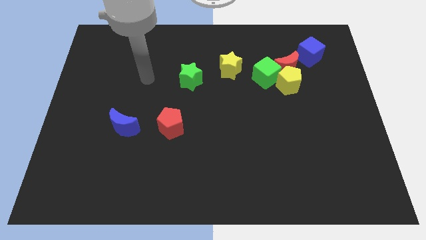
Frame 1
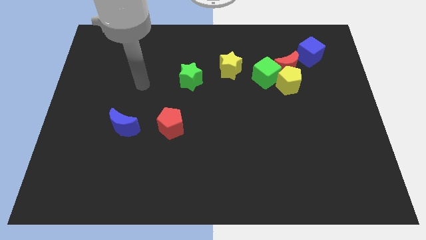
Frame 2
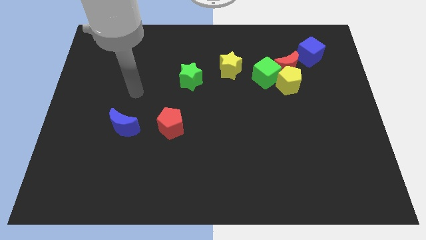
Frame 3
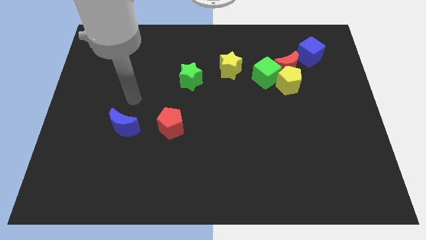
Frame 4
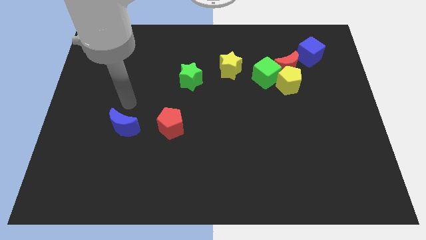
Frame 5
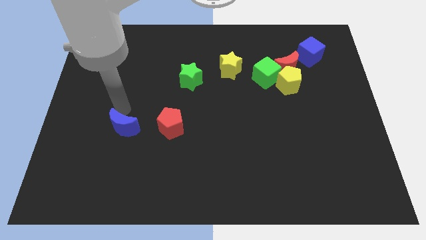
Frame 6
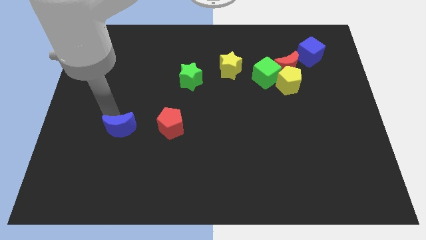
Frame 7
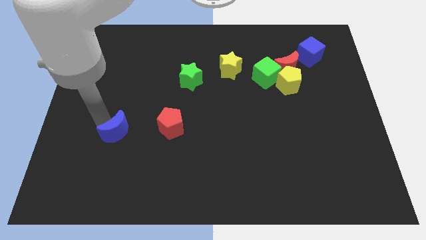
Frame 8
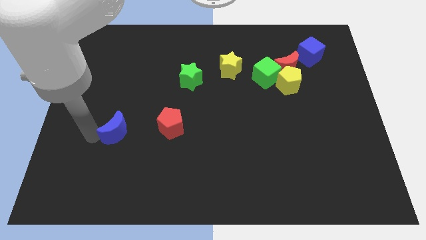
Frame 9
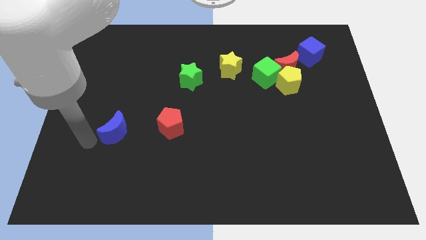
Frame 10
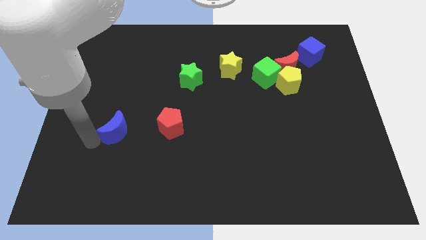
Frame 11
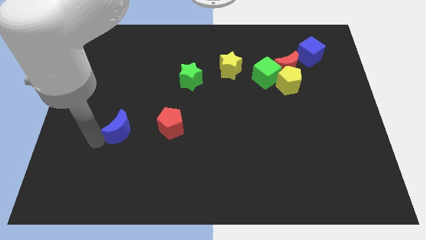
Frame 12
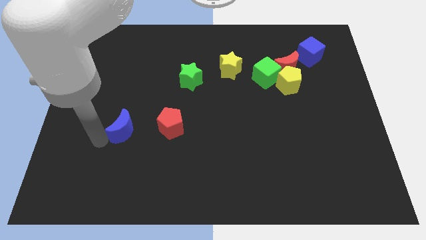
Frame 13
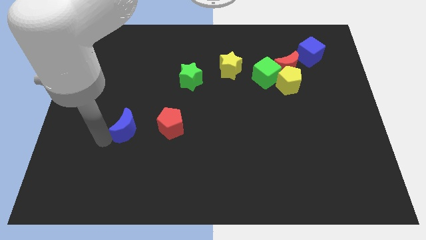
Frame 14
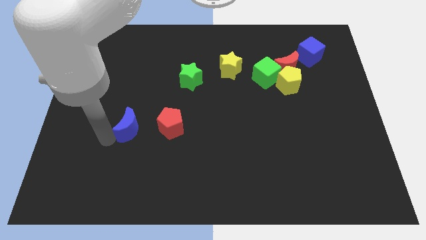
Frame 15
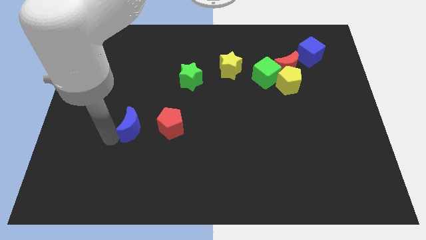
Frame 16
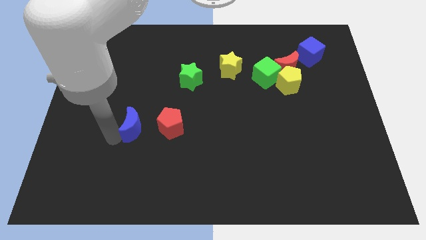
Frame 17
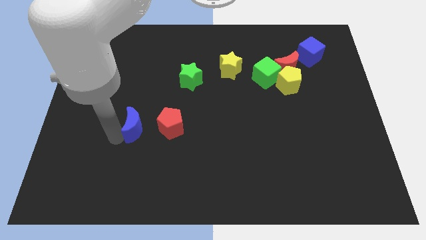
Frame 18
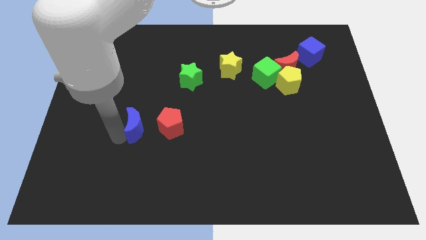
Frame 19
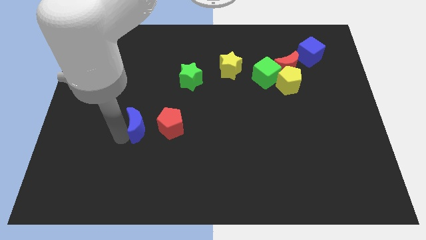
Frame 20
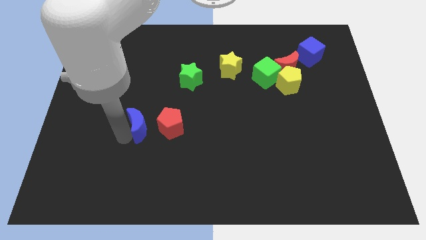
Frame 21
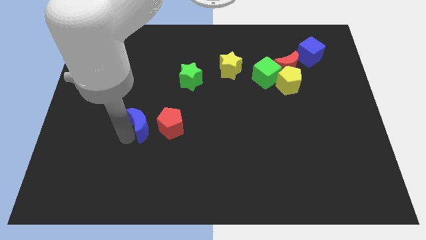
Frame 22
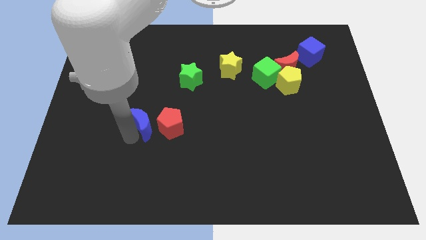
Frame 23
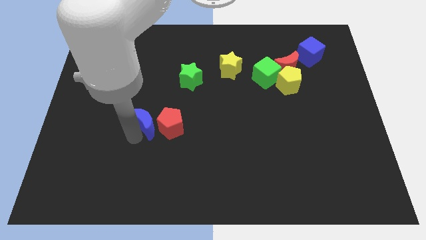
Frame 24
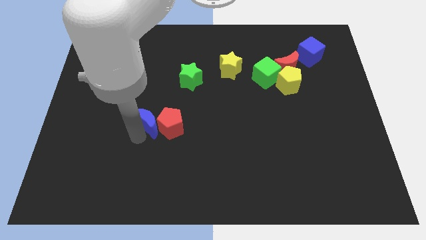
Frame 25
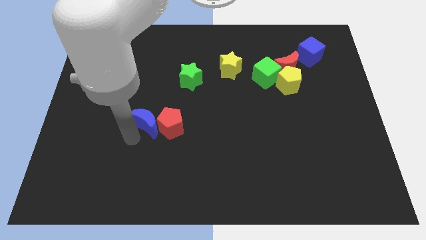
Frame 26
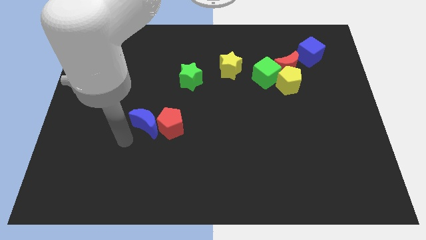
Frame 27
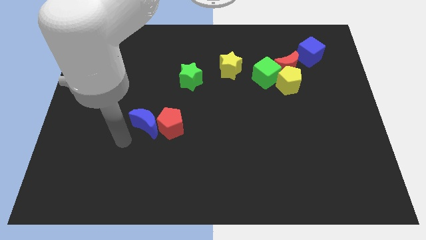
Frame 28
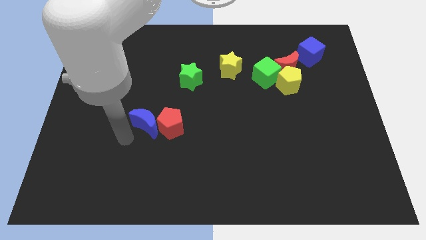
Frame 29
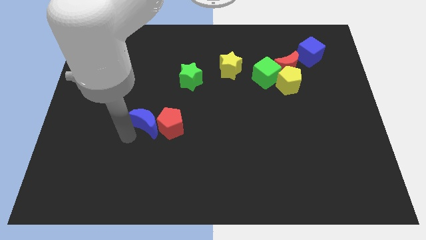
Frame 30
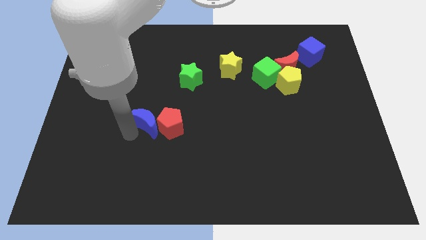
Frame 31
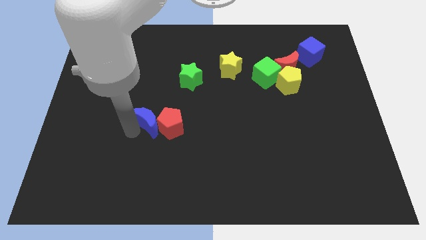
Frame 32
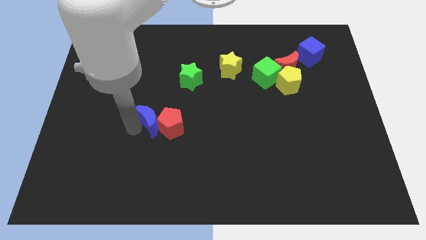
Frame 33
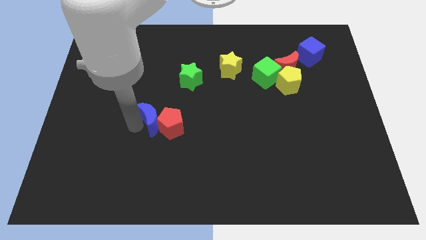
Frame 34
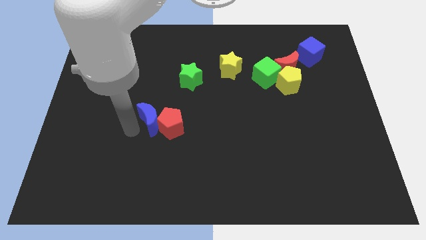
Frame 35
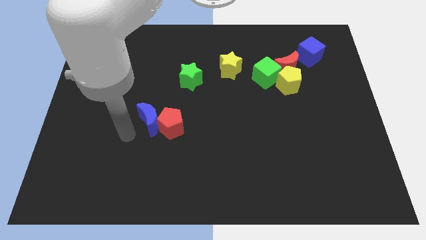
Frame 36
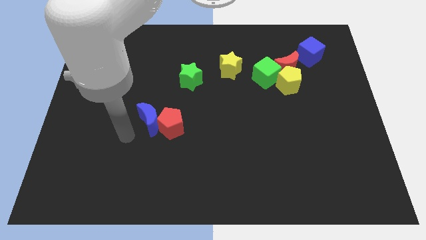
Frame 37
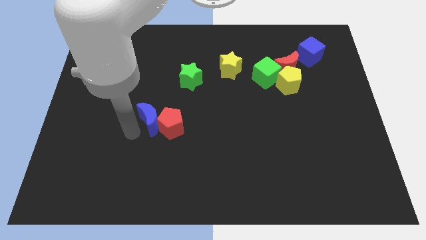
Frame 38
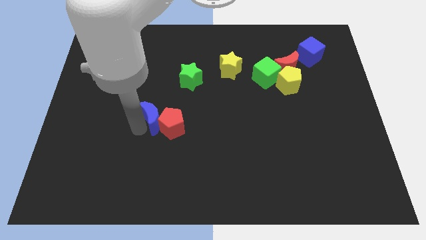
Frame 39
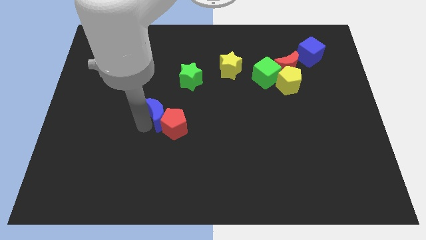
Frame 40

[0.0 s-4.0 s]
move the blue moon a little to the right

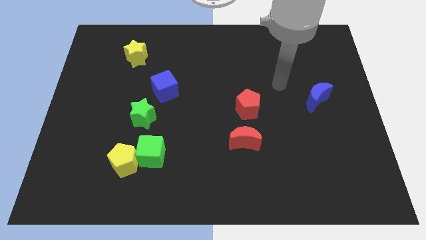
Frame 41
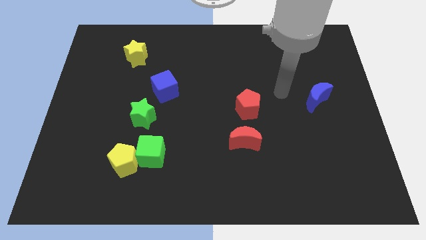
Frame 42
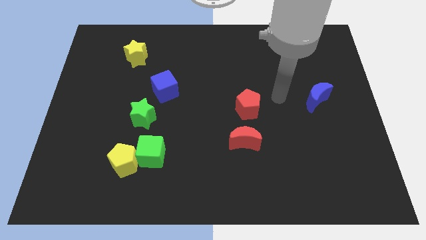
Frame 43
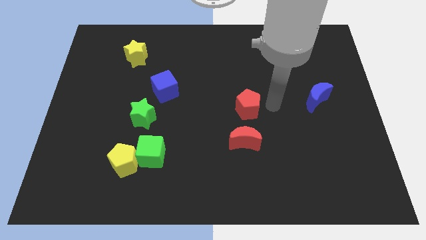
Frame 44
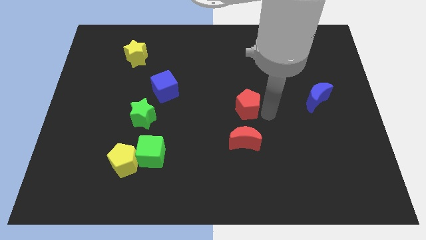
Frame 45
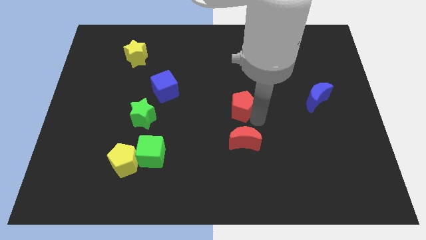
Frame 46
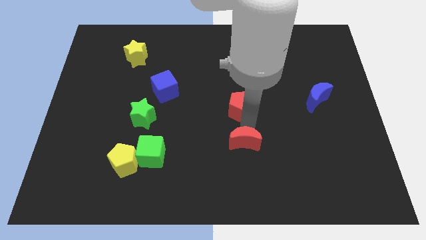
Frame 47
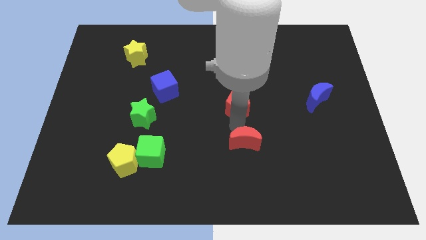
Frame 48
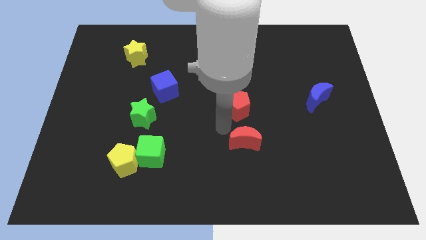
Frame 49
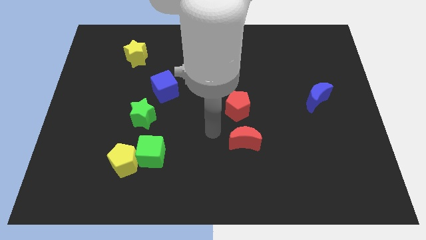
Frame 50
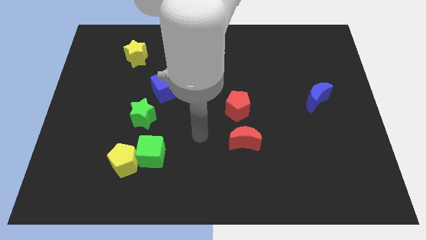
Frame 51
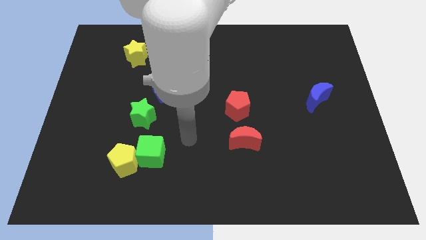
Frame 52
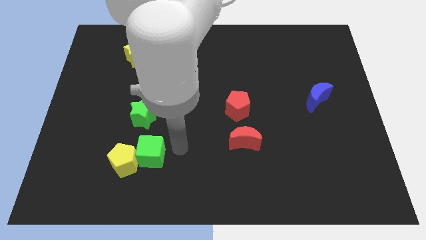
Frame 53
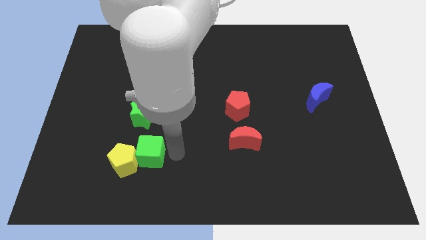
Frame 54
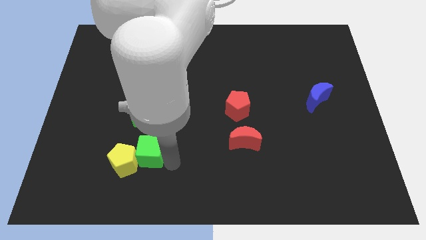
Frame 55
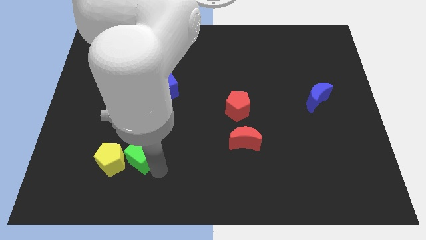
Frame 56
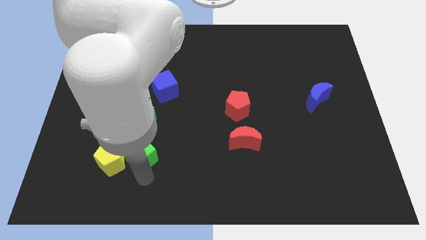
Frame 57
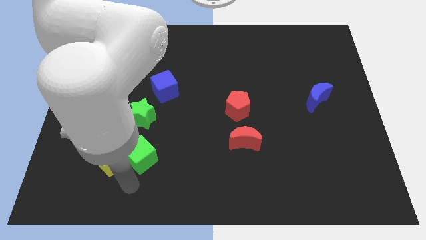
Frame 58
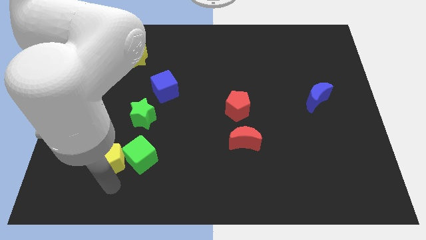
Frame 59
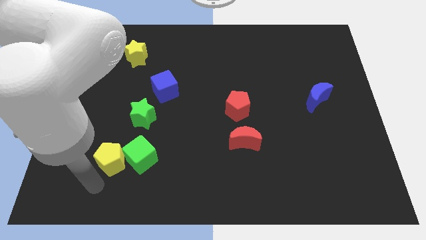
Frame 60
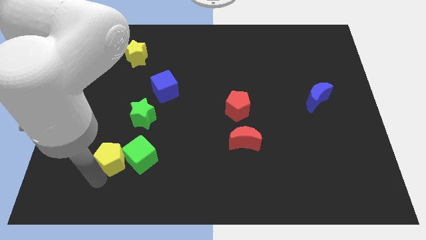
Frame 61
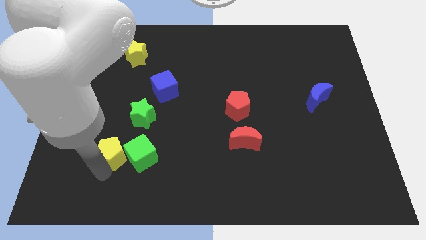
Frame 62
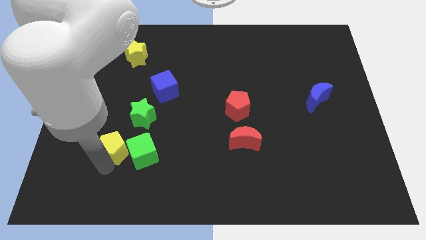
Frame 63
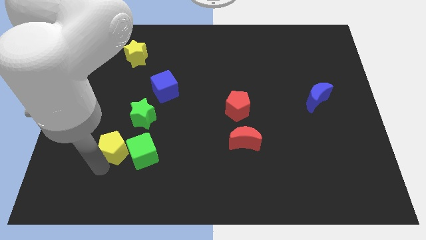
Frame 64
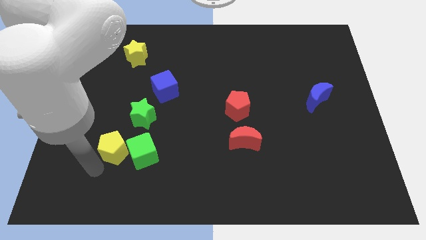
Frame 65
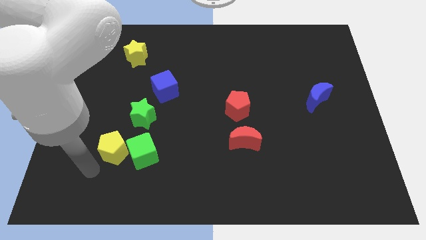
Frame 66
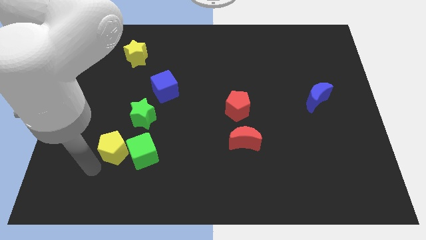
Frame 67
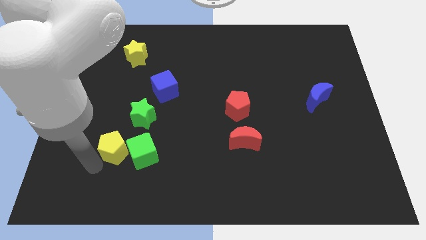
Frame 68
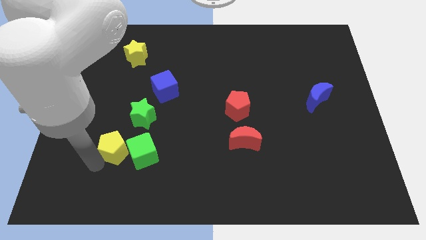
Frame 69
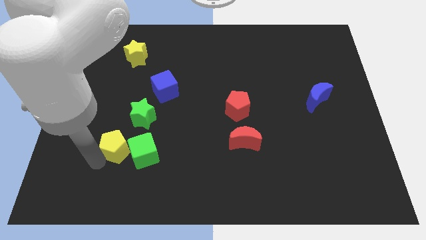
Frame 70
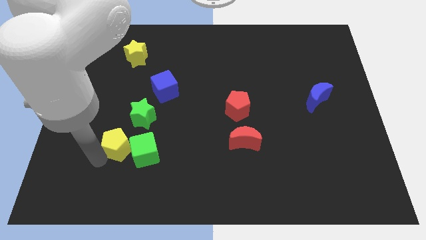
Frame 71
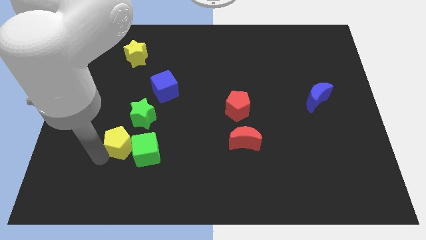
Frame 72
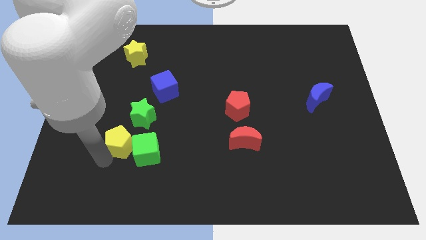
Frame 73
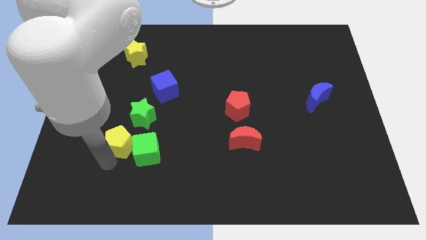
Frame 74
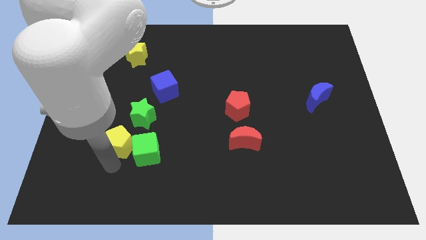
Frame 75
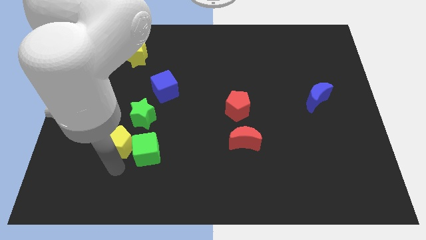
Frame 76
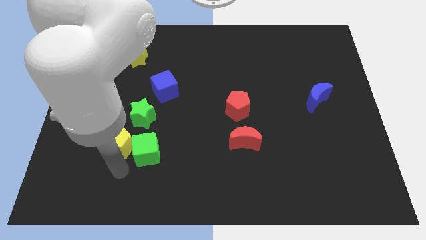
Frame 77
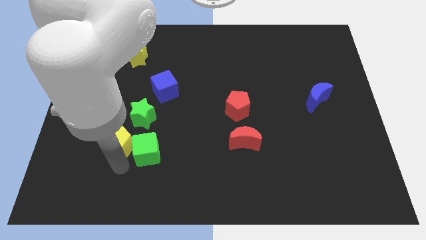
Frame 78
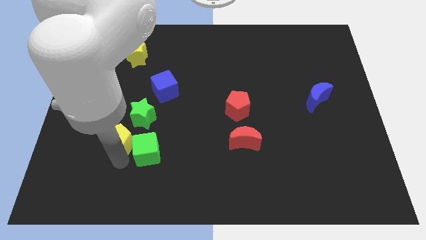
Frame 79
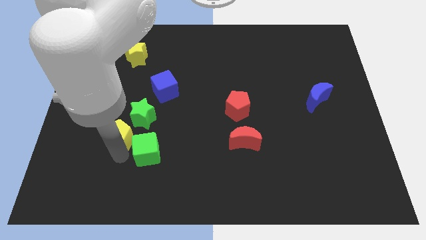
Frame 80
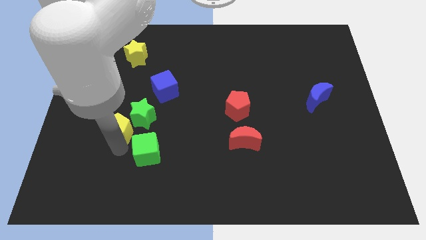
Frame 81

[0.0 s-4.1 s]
slightly move the yellow pentagon up

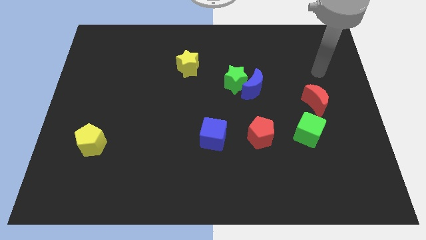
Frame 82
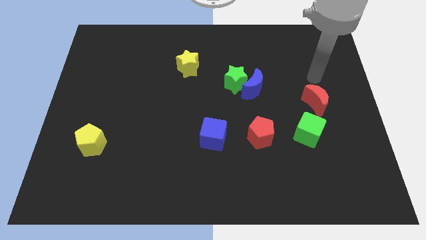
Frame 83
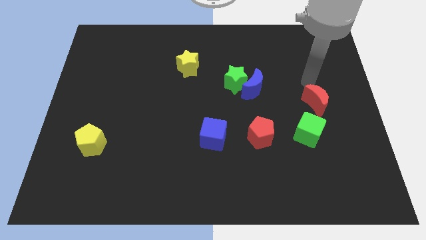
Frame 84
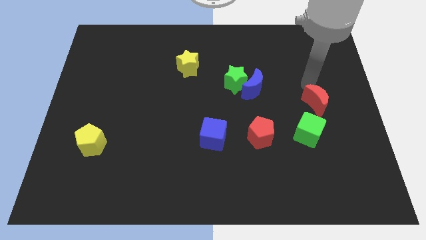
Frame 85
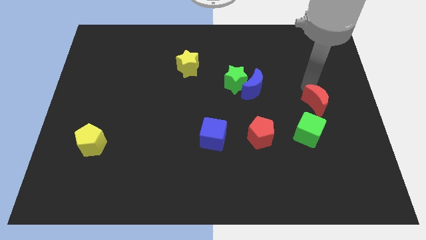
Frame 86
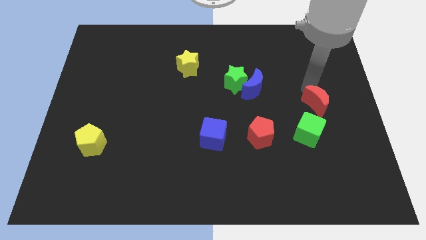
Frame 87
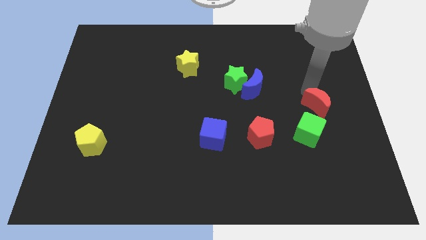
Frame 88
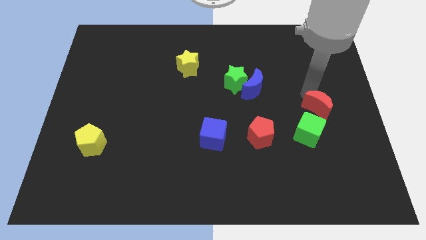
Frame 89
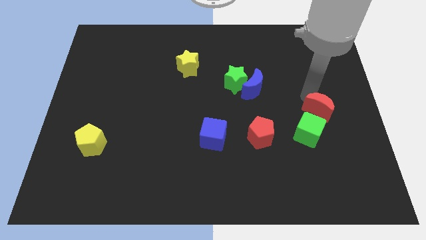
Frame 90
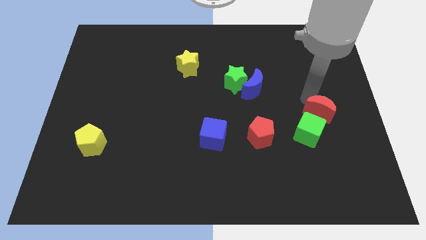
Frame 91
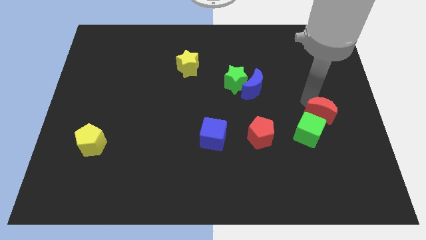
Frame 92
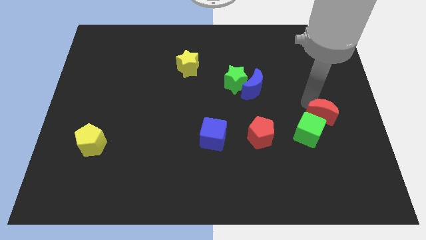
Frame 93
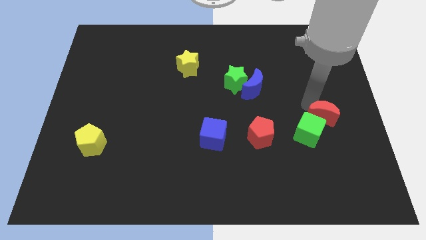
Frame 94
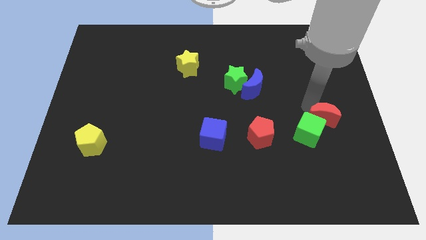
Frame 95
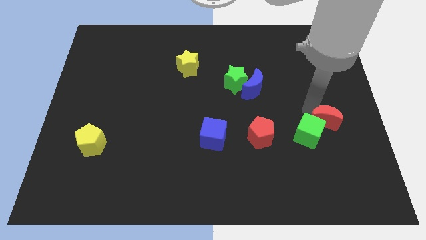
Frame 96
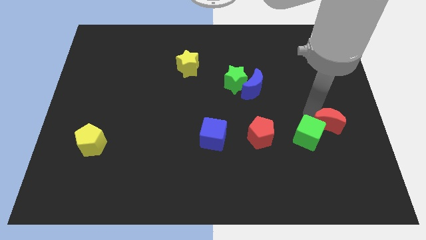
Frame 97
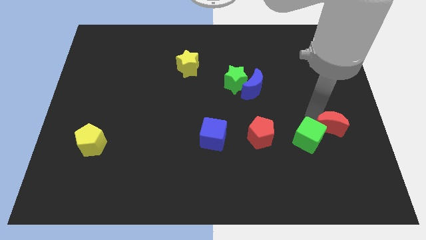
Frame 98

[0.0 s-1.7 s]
push the red moon somewhat downwards
